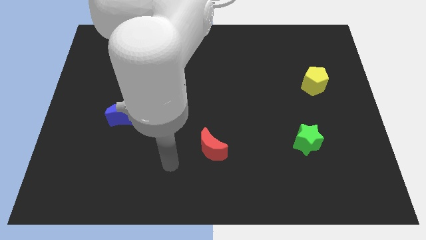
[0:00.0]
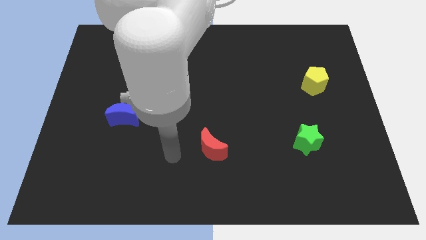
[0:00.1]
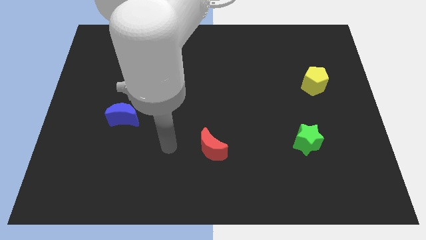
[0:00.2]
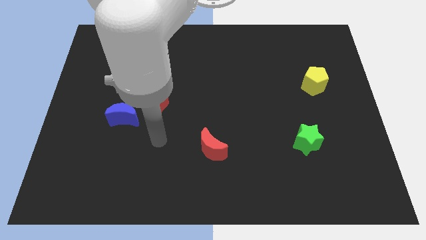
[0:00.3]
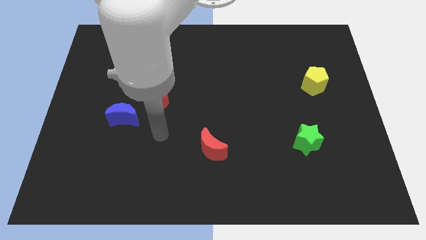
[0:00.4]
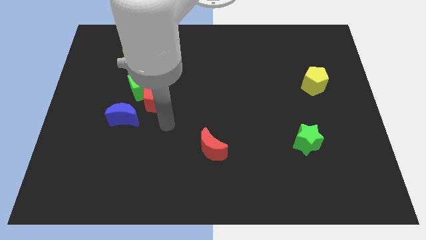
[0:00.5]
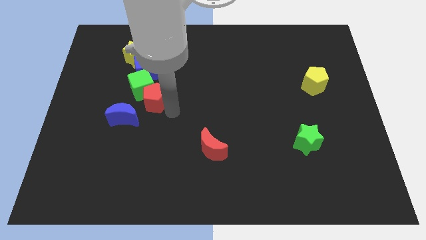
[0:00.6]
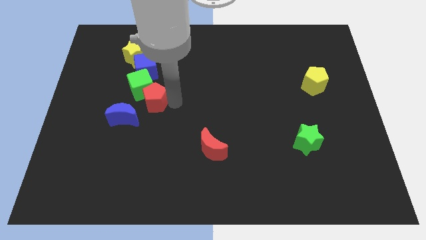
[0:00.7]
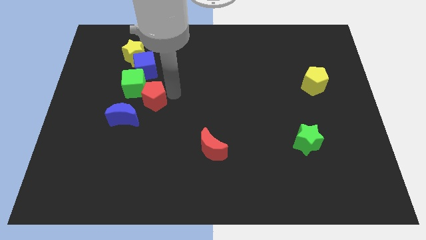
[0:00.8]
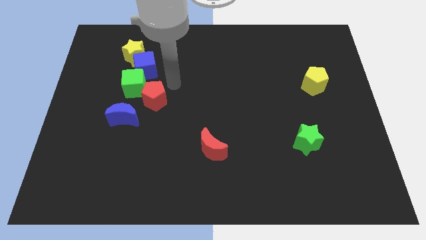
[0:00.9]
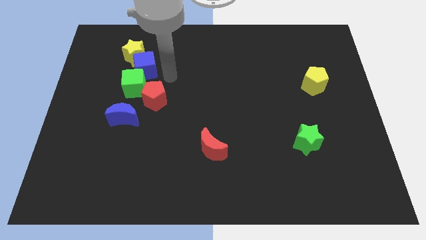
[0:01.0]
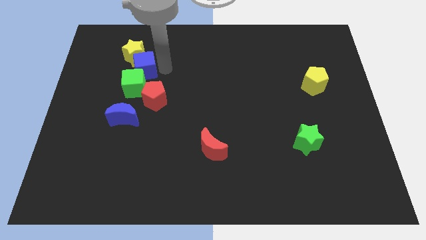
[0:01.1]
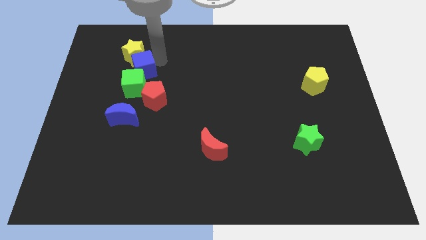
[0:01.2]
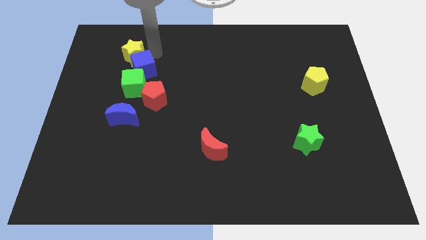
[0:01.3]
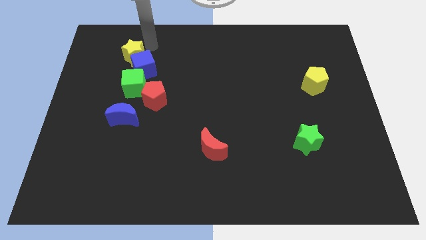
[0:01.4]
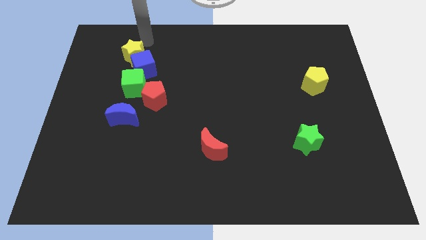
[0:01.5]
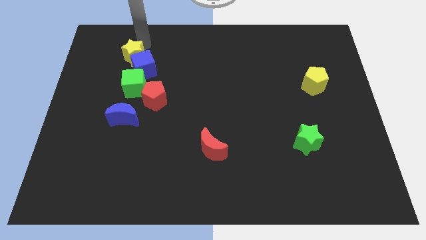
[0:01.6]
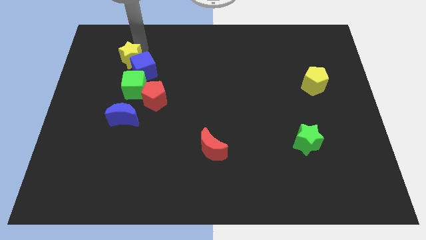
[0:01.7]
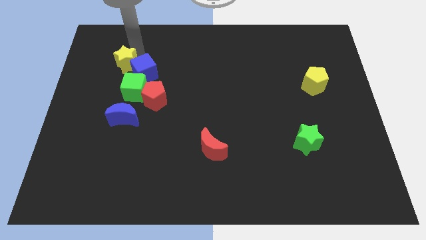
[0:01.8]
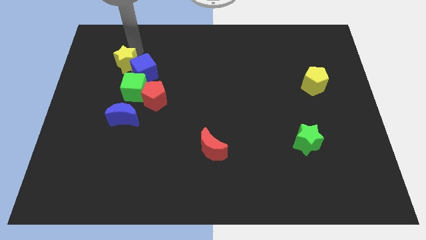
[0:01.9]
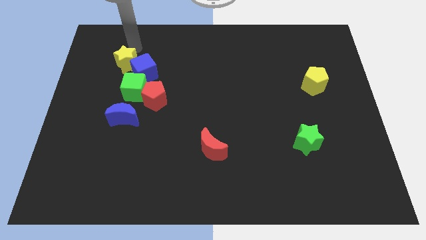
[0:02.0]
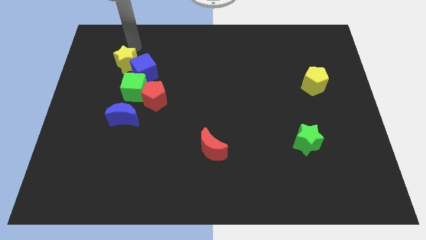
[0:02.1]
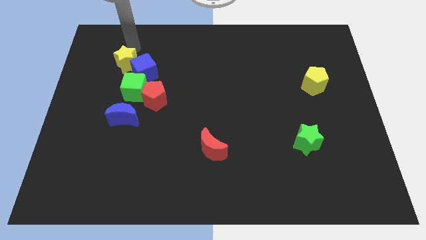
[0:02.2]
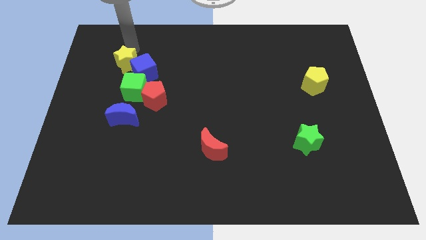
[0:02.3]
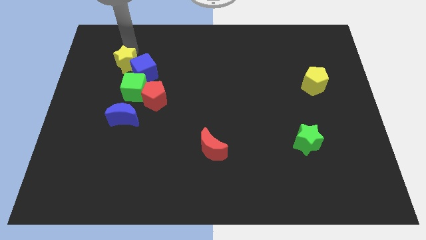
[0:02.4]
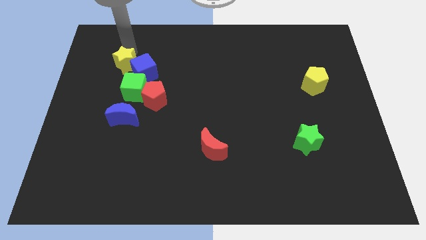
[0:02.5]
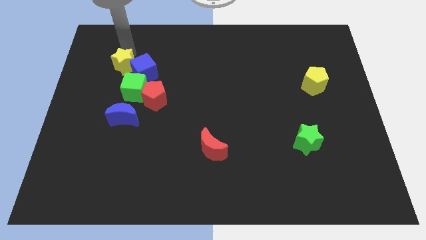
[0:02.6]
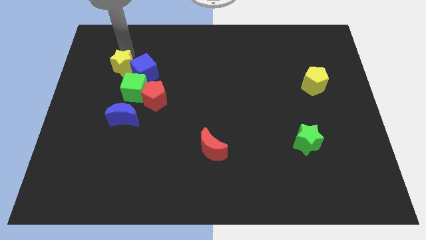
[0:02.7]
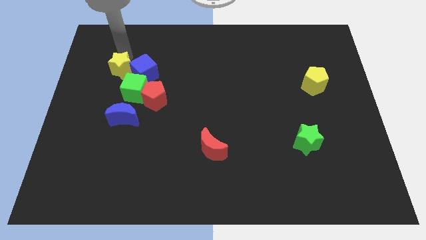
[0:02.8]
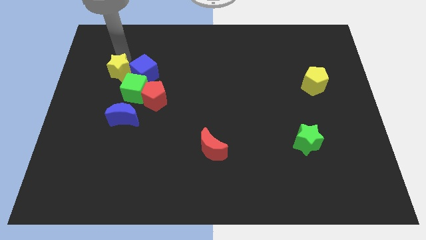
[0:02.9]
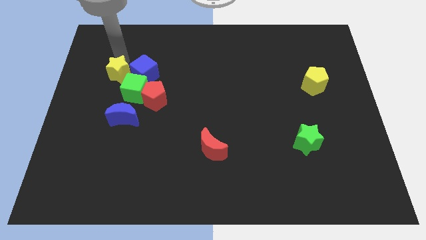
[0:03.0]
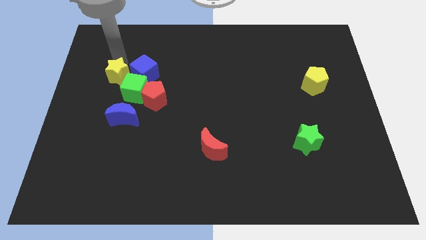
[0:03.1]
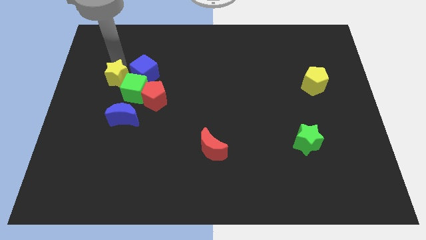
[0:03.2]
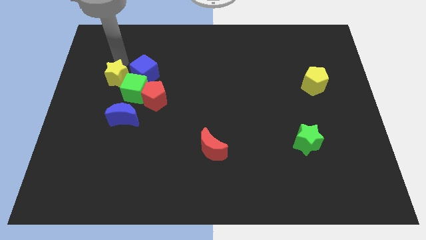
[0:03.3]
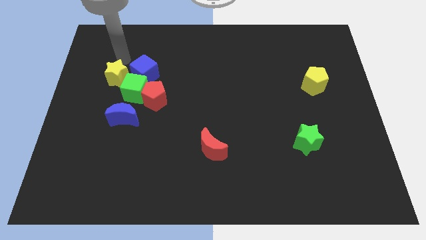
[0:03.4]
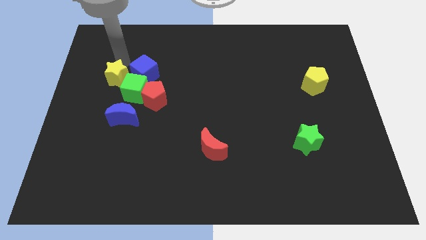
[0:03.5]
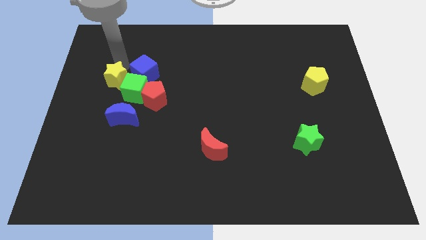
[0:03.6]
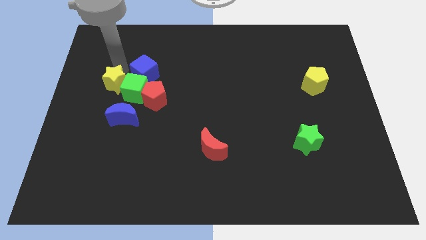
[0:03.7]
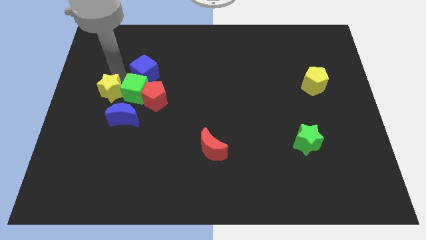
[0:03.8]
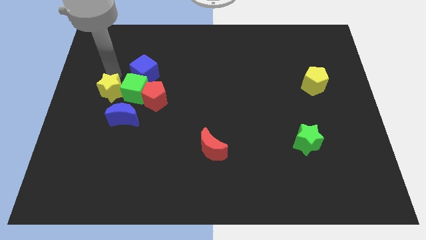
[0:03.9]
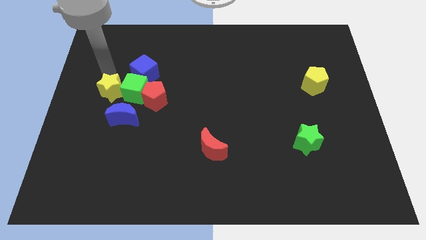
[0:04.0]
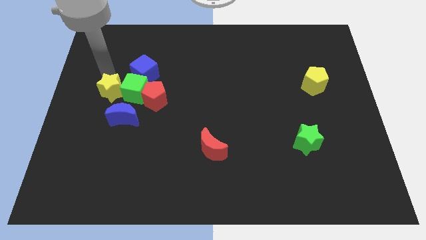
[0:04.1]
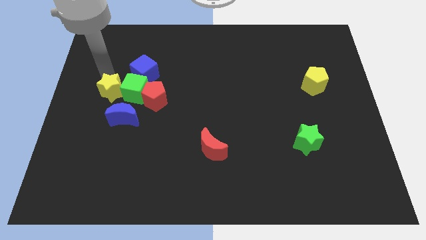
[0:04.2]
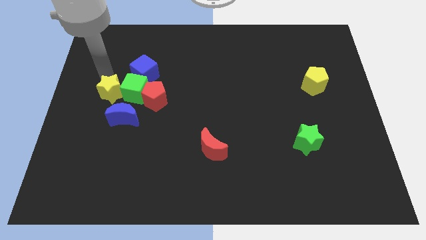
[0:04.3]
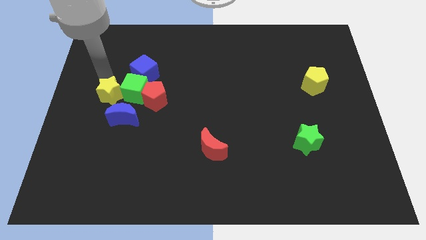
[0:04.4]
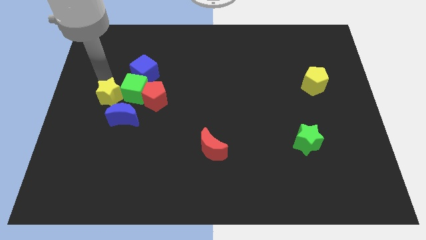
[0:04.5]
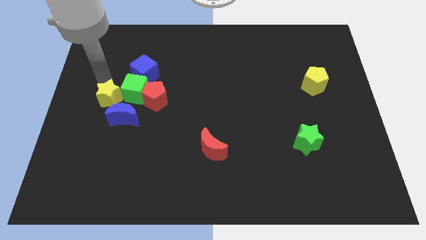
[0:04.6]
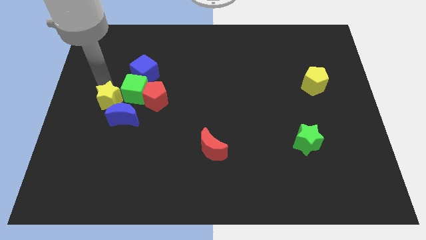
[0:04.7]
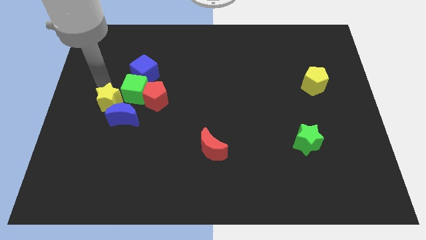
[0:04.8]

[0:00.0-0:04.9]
put the yellow star towards the blue moon

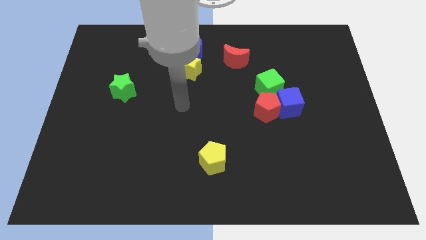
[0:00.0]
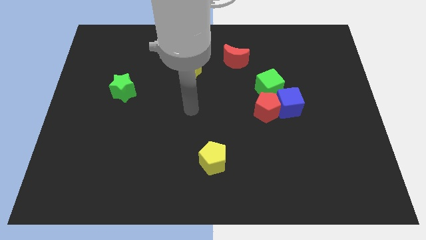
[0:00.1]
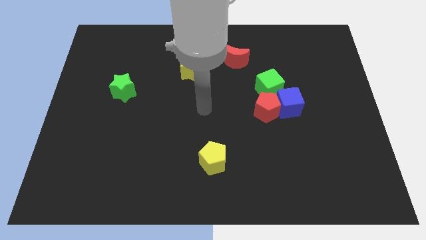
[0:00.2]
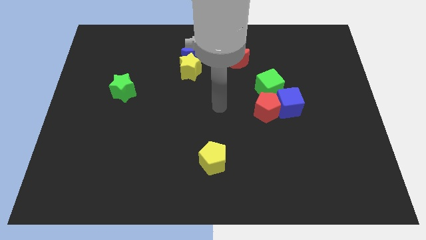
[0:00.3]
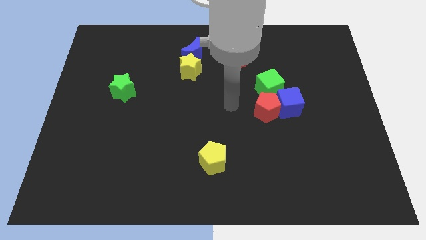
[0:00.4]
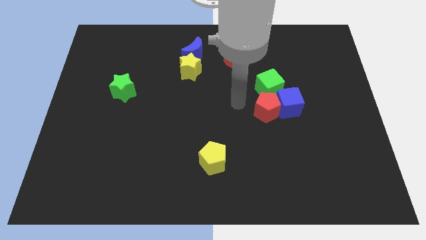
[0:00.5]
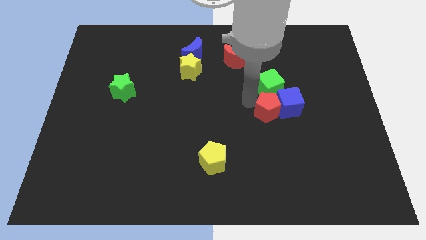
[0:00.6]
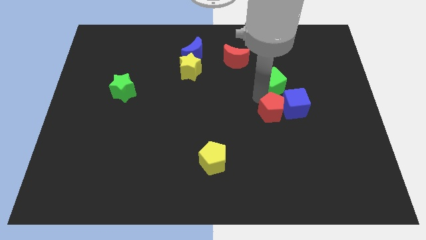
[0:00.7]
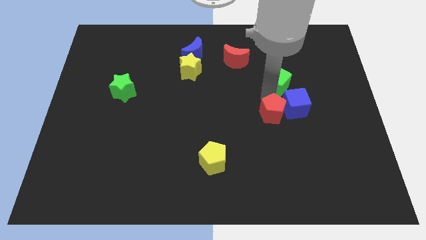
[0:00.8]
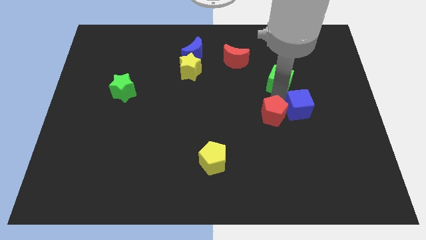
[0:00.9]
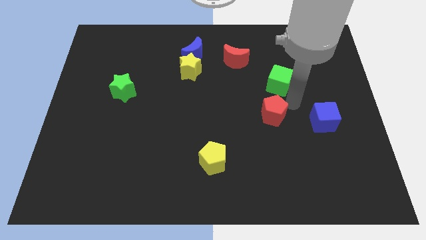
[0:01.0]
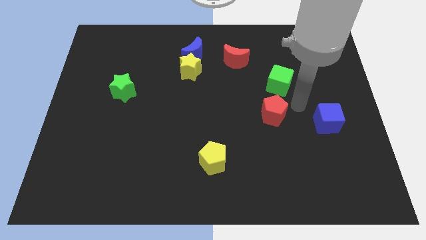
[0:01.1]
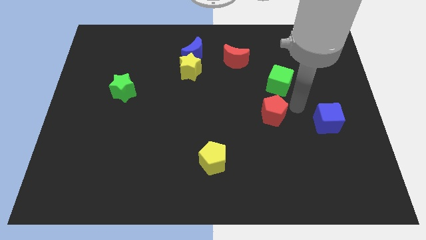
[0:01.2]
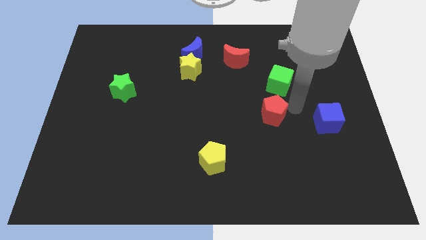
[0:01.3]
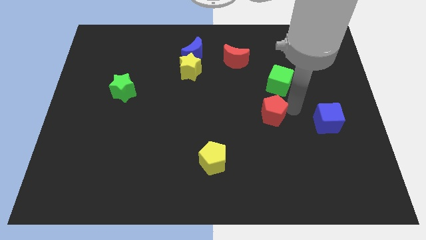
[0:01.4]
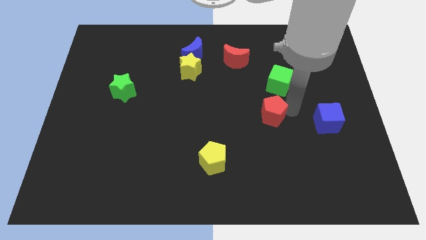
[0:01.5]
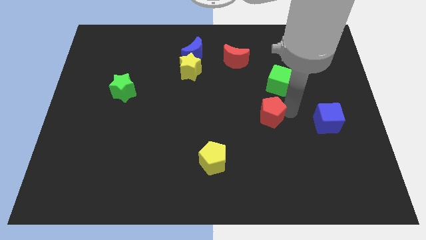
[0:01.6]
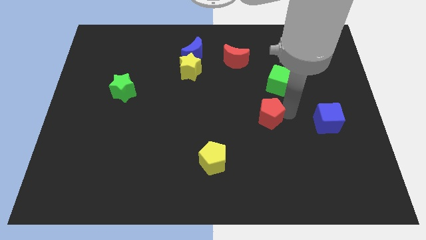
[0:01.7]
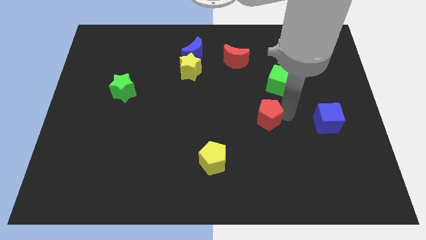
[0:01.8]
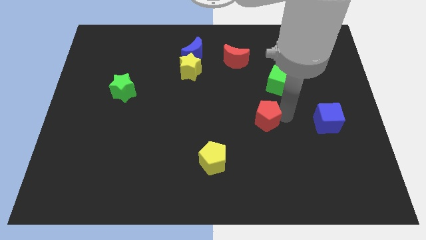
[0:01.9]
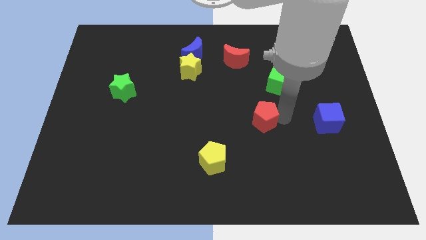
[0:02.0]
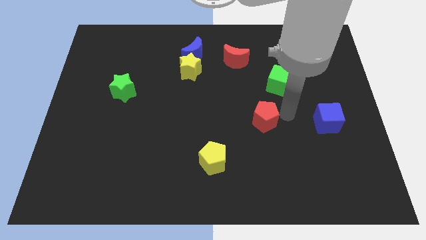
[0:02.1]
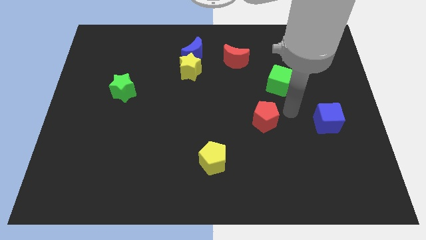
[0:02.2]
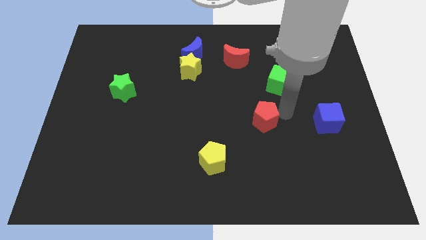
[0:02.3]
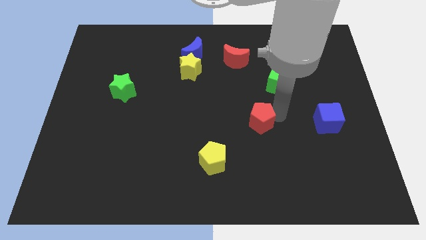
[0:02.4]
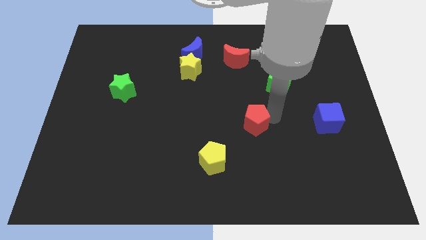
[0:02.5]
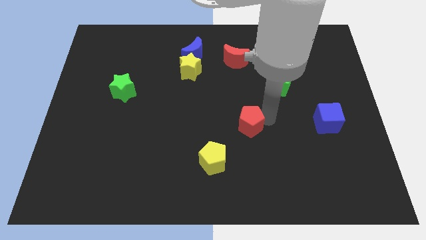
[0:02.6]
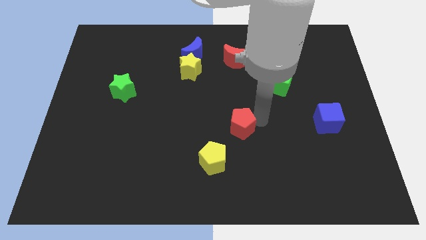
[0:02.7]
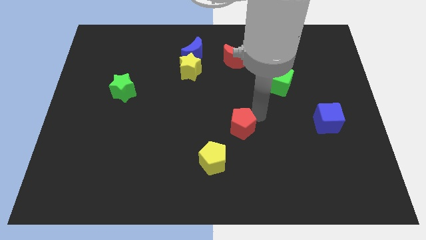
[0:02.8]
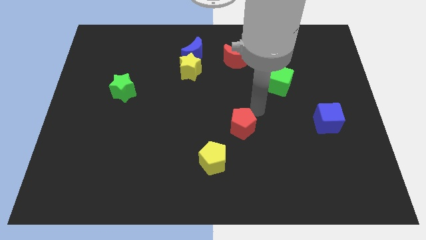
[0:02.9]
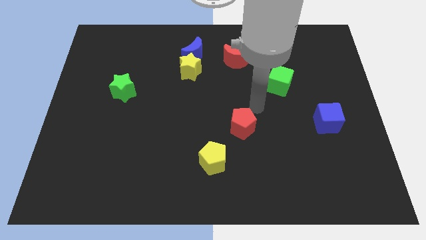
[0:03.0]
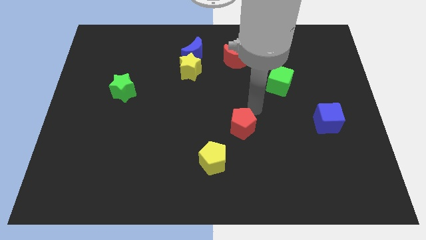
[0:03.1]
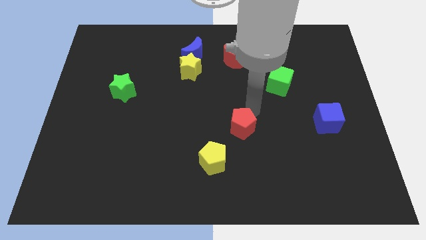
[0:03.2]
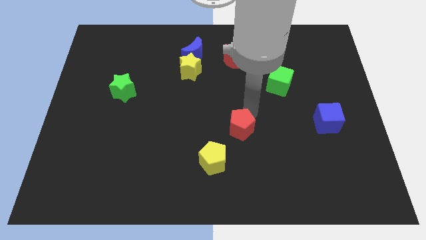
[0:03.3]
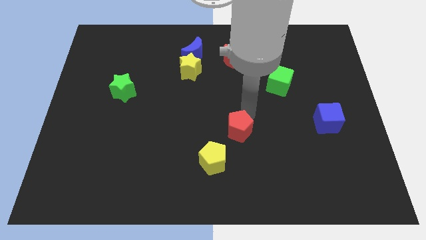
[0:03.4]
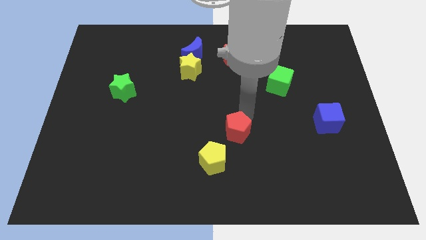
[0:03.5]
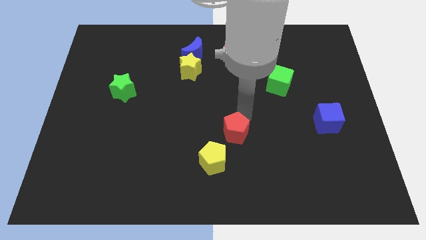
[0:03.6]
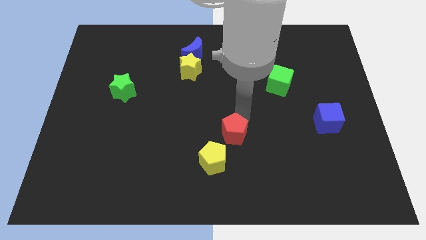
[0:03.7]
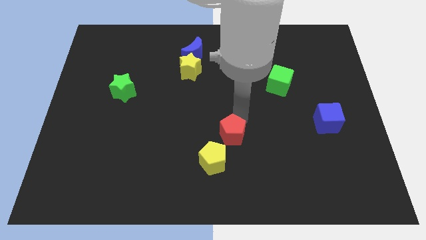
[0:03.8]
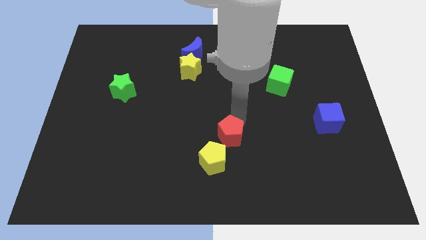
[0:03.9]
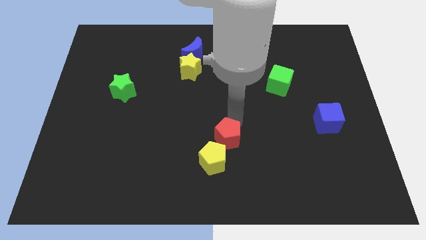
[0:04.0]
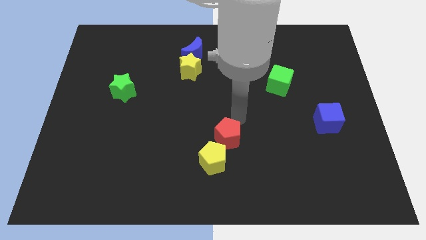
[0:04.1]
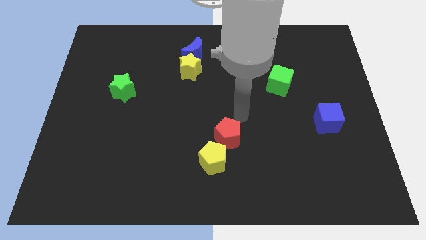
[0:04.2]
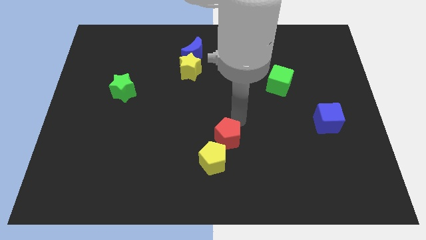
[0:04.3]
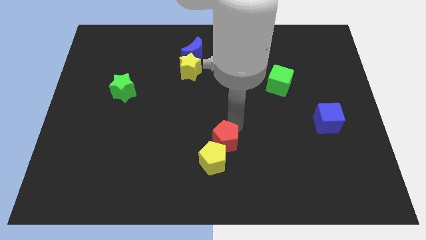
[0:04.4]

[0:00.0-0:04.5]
push the red pentagon to the yellow pentagon
